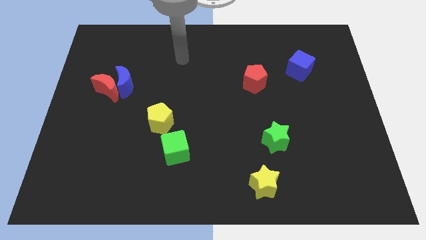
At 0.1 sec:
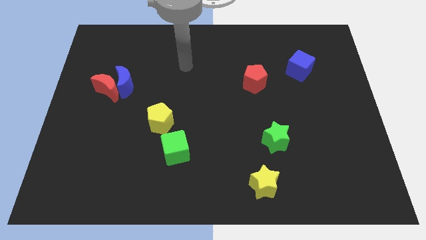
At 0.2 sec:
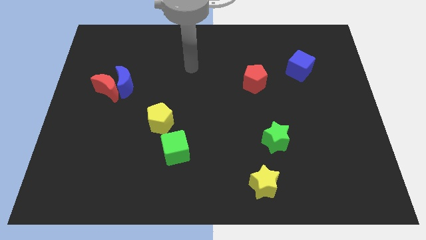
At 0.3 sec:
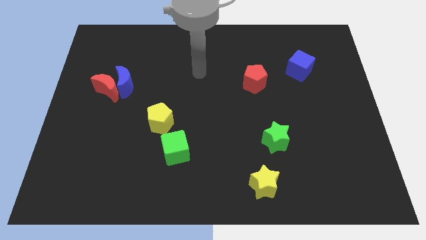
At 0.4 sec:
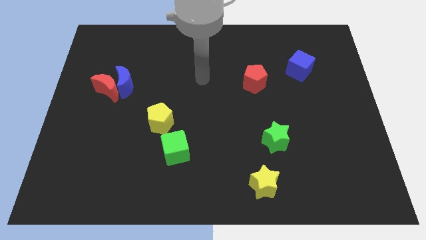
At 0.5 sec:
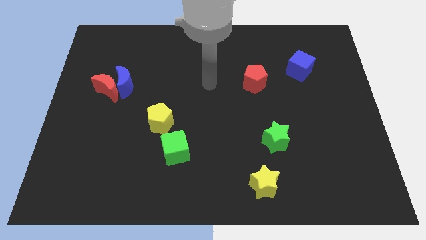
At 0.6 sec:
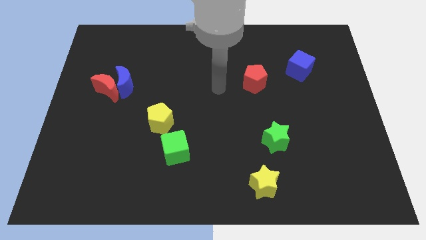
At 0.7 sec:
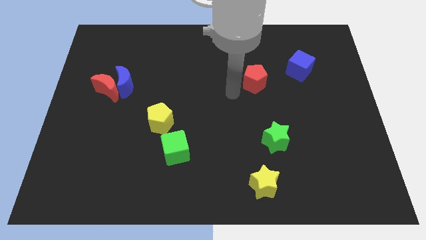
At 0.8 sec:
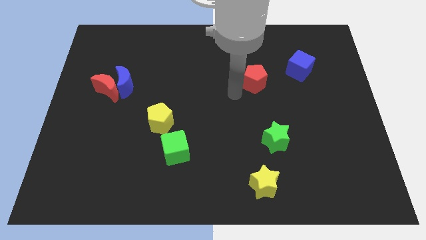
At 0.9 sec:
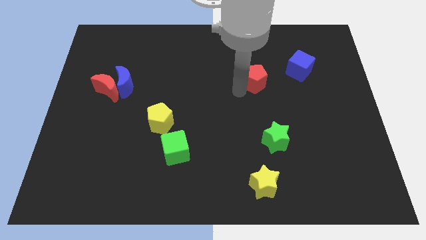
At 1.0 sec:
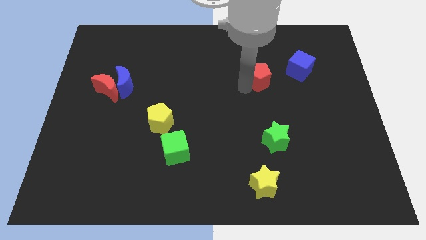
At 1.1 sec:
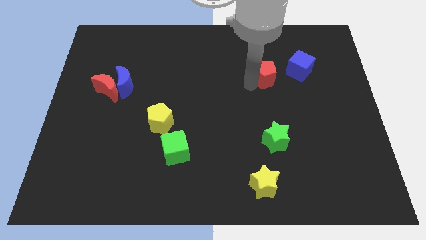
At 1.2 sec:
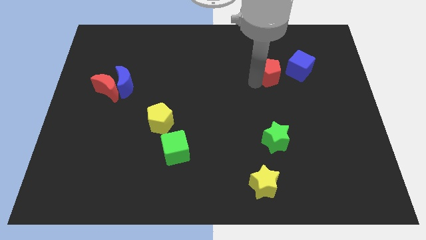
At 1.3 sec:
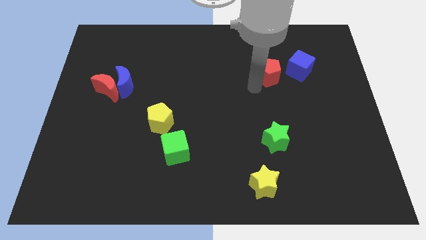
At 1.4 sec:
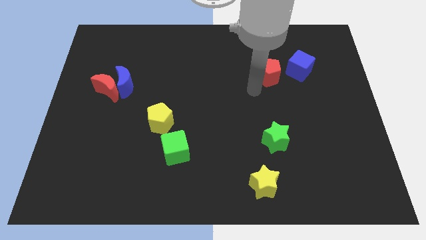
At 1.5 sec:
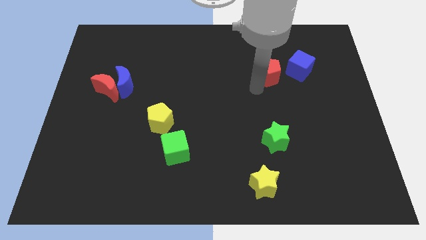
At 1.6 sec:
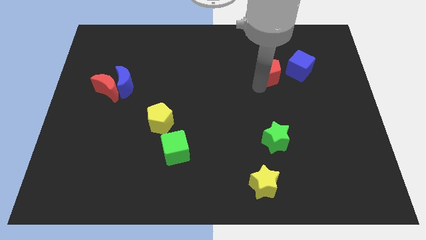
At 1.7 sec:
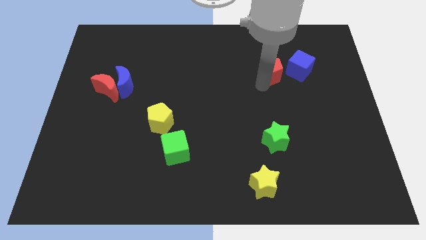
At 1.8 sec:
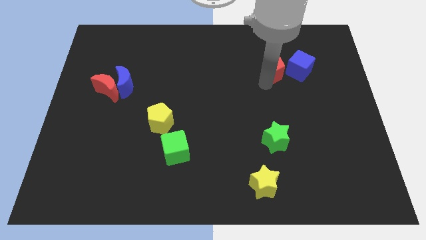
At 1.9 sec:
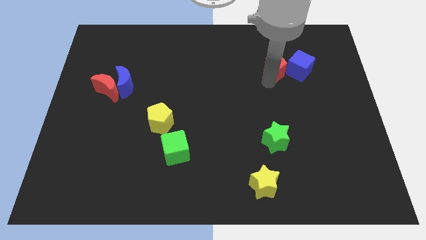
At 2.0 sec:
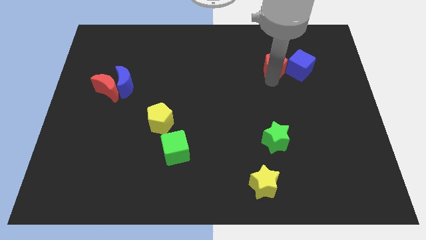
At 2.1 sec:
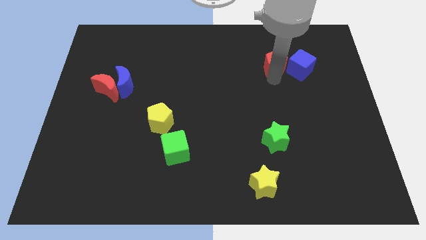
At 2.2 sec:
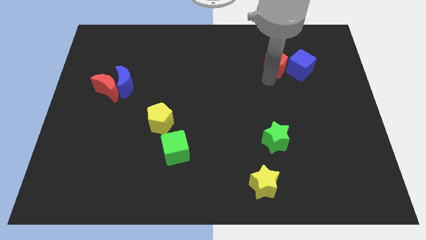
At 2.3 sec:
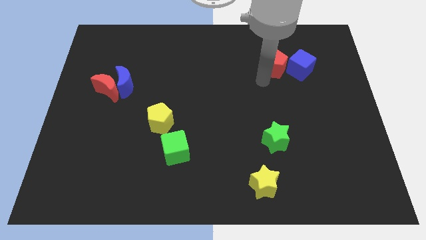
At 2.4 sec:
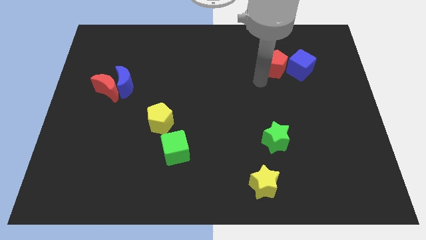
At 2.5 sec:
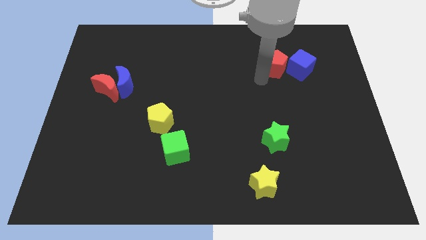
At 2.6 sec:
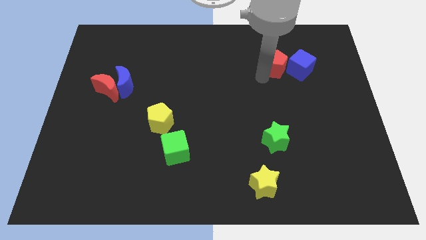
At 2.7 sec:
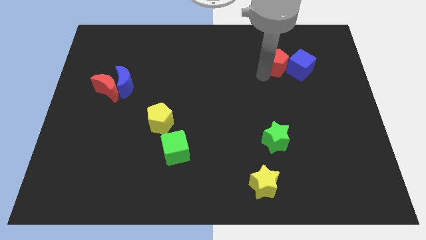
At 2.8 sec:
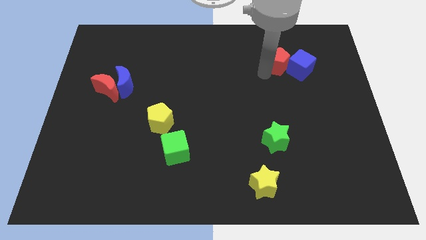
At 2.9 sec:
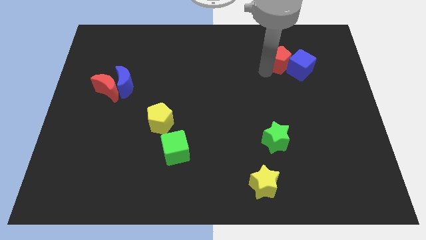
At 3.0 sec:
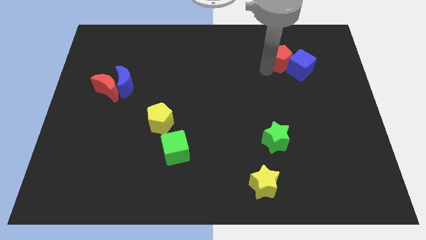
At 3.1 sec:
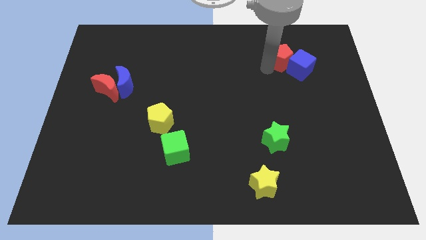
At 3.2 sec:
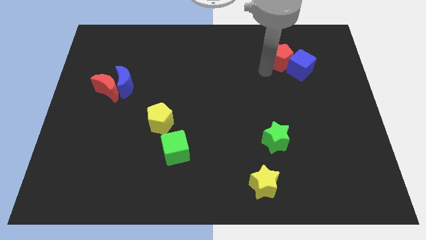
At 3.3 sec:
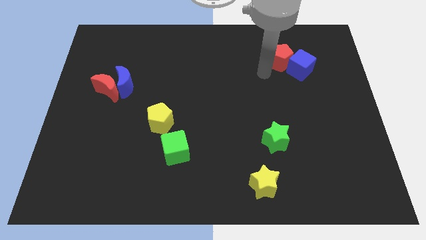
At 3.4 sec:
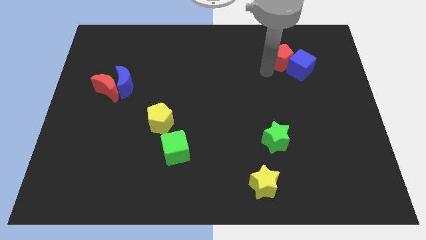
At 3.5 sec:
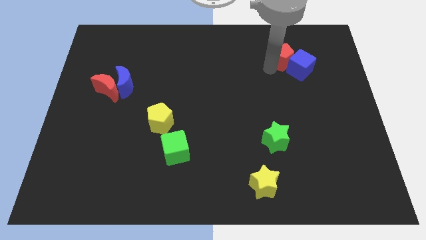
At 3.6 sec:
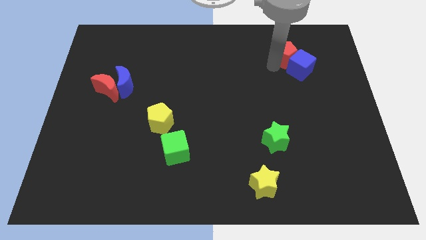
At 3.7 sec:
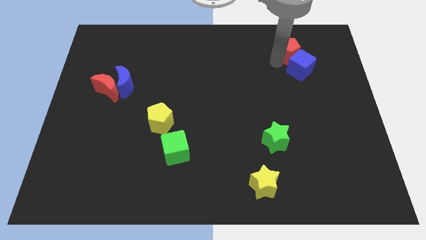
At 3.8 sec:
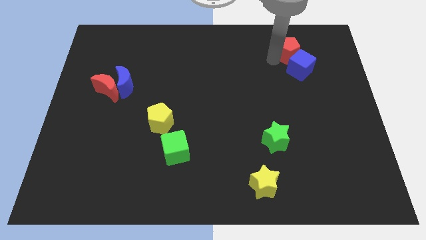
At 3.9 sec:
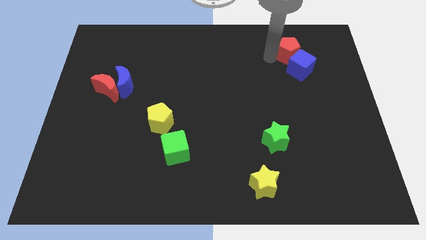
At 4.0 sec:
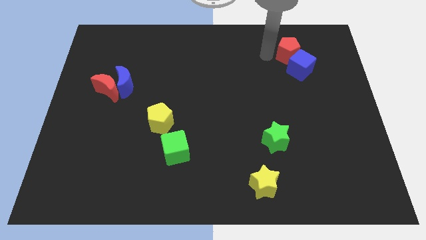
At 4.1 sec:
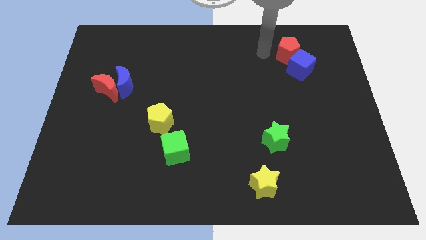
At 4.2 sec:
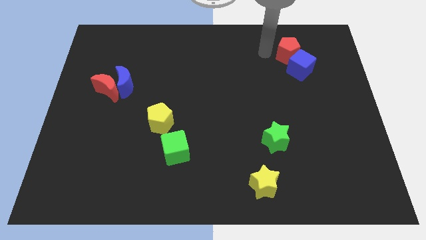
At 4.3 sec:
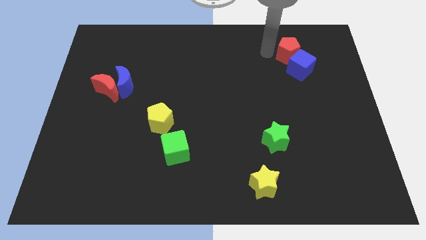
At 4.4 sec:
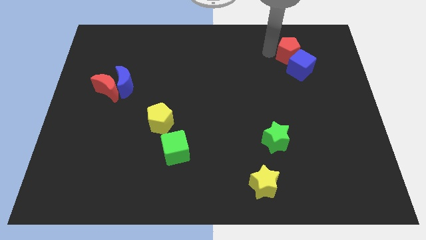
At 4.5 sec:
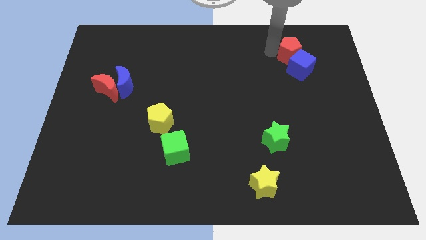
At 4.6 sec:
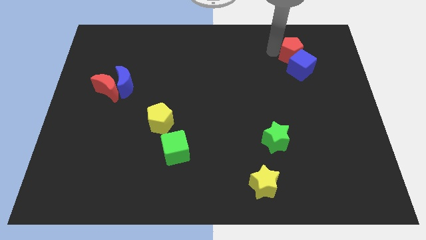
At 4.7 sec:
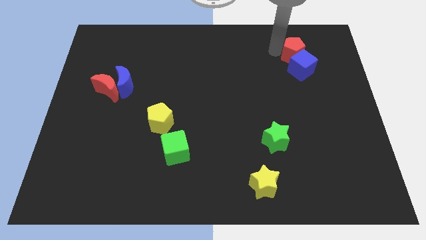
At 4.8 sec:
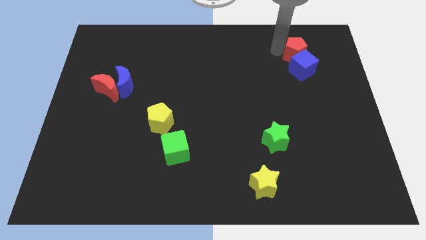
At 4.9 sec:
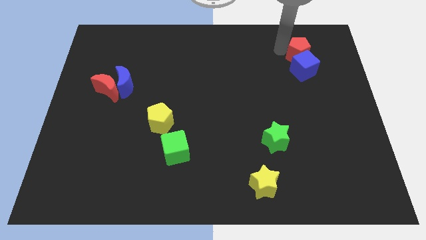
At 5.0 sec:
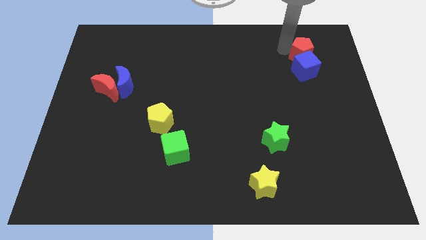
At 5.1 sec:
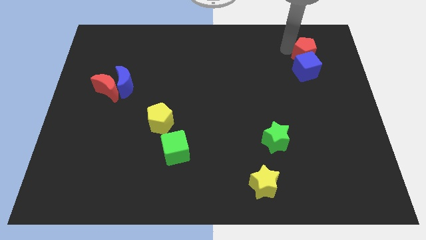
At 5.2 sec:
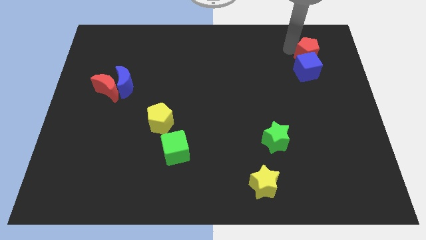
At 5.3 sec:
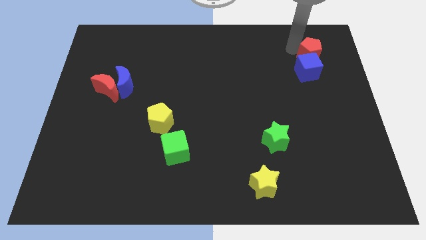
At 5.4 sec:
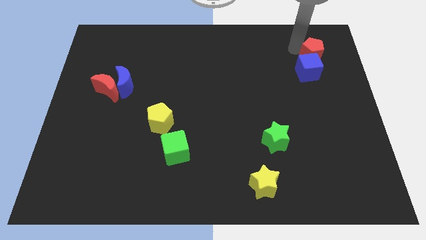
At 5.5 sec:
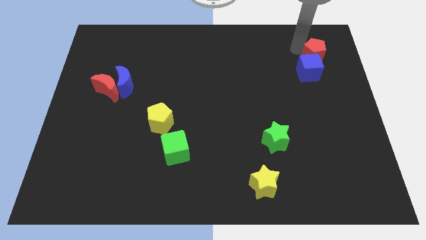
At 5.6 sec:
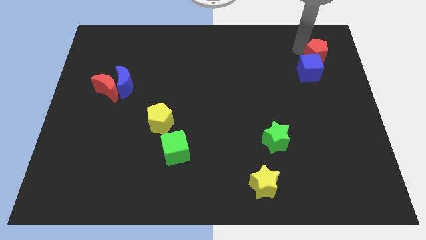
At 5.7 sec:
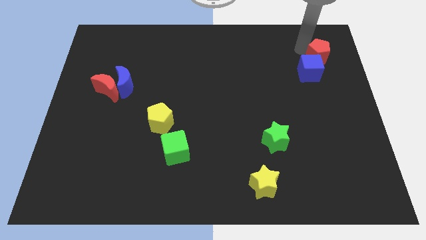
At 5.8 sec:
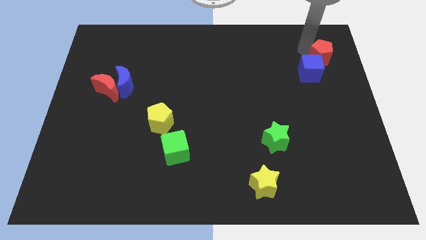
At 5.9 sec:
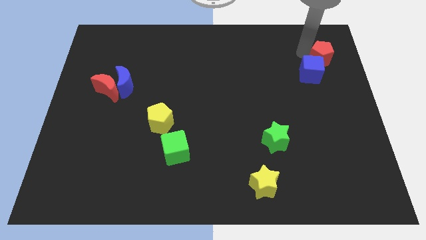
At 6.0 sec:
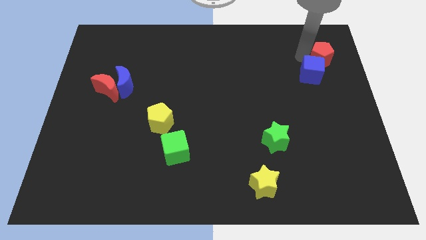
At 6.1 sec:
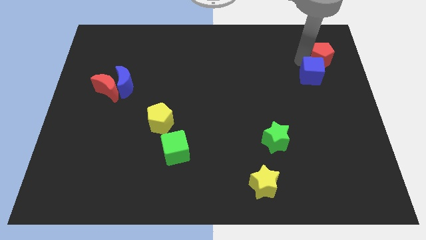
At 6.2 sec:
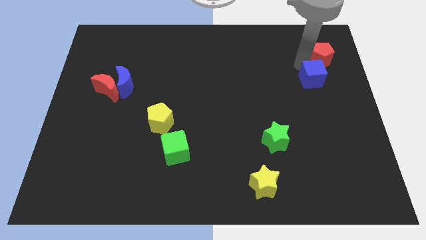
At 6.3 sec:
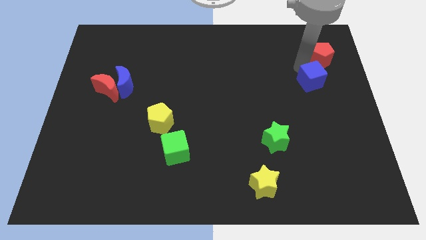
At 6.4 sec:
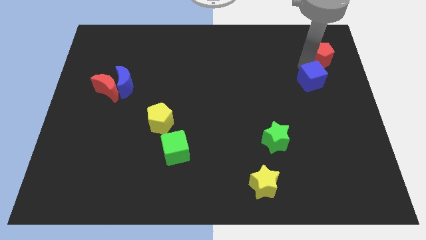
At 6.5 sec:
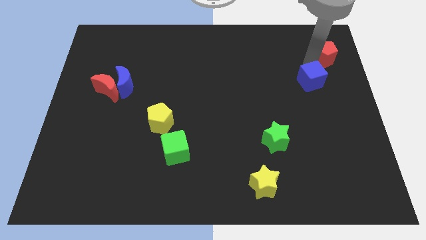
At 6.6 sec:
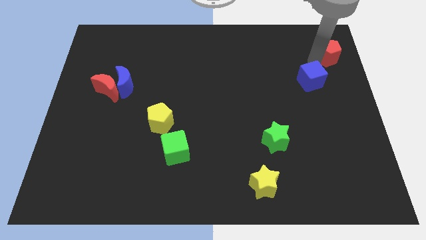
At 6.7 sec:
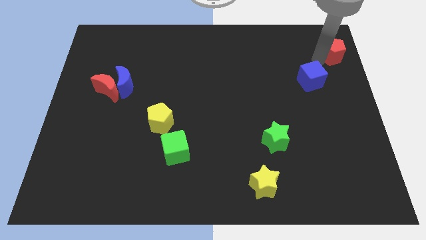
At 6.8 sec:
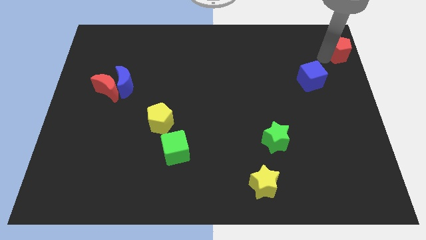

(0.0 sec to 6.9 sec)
put the red pentagon to the top right corner
